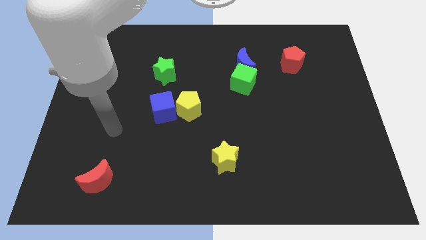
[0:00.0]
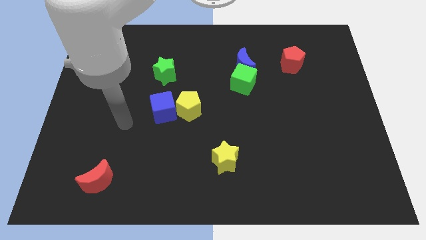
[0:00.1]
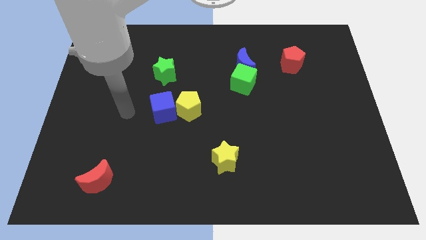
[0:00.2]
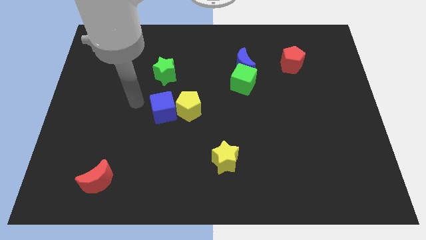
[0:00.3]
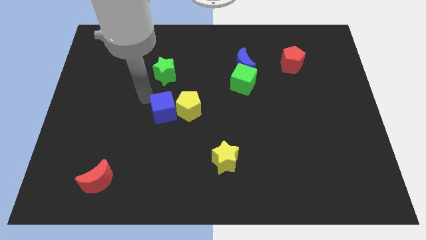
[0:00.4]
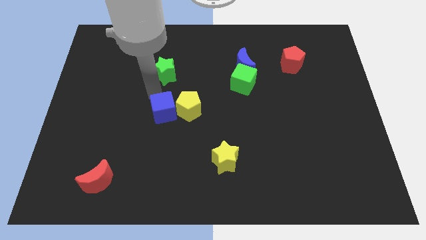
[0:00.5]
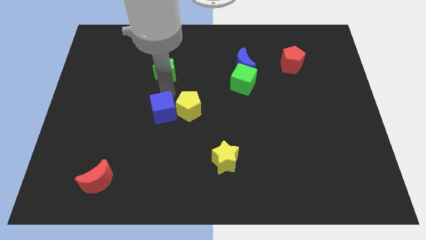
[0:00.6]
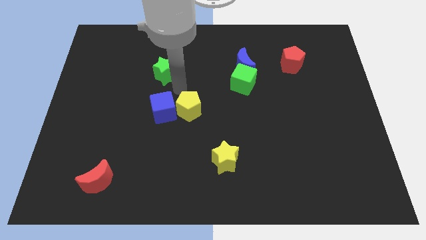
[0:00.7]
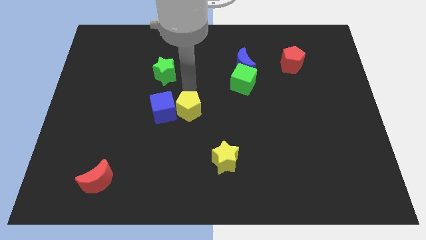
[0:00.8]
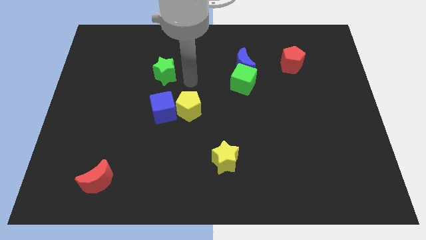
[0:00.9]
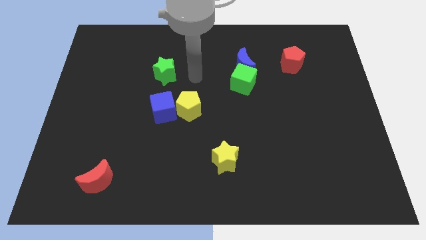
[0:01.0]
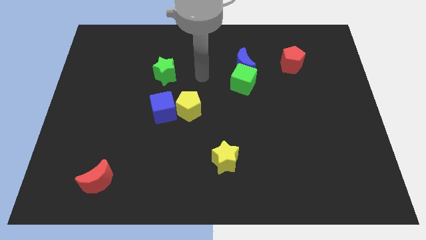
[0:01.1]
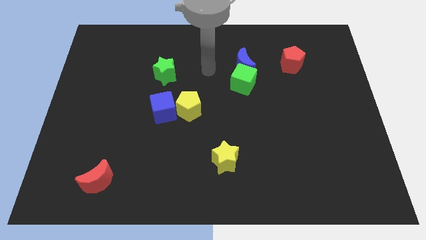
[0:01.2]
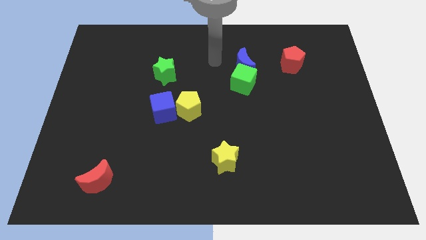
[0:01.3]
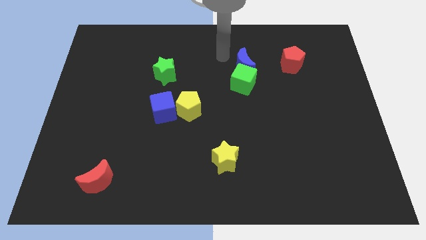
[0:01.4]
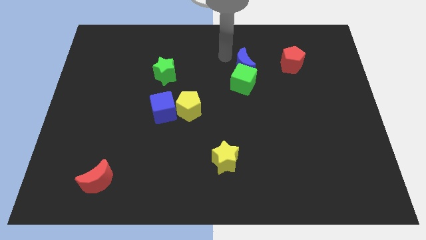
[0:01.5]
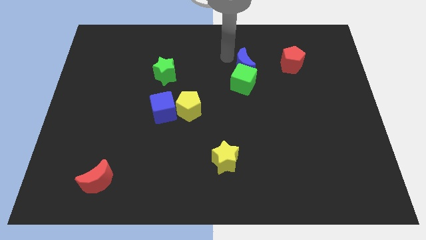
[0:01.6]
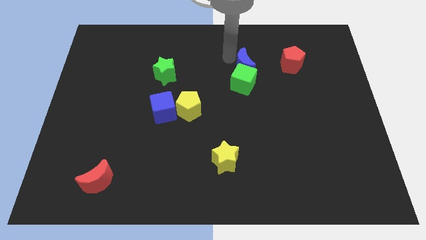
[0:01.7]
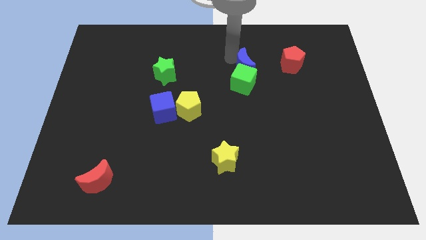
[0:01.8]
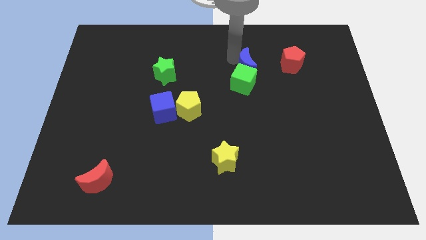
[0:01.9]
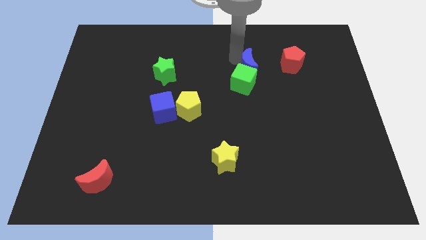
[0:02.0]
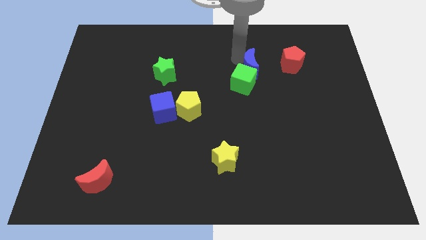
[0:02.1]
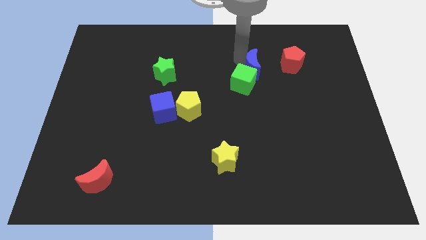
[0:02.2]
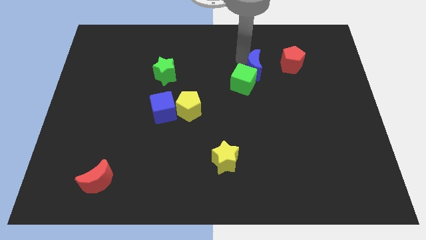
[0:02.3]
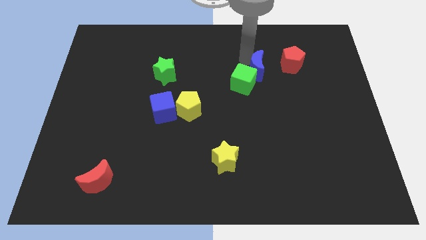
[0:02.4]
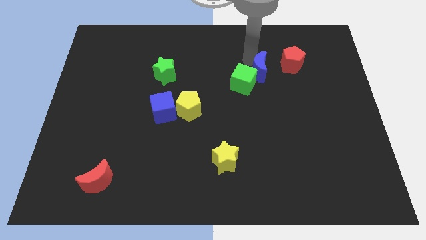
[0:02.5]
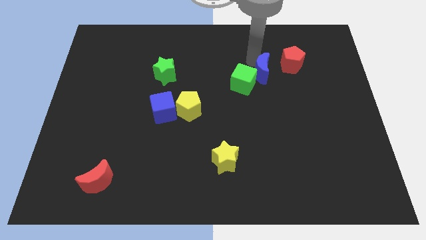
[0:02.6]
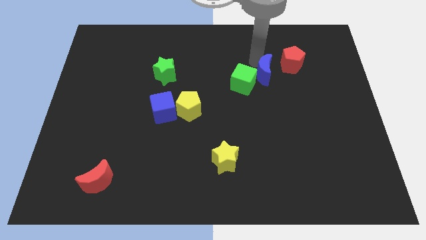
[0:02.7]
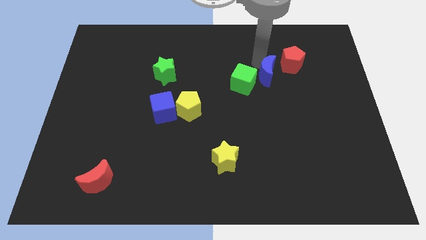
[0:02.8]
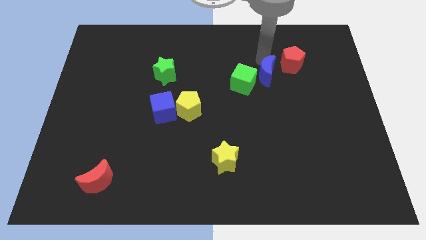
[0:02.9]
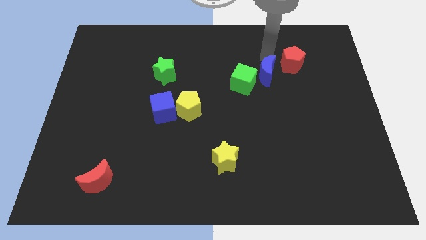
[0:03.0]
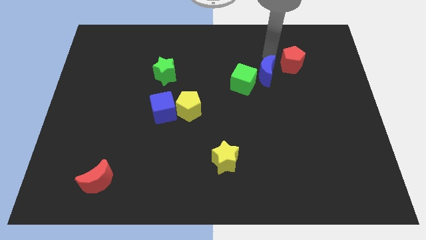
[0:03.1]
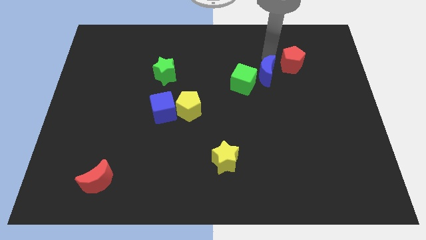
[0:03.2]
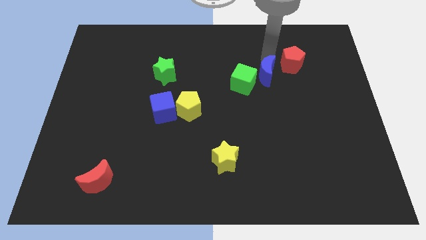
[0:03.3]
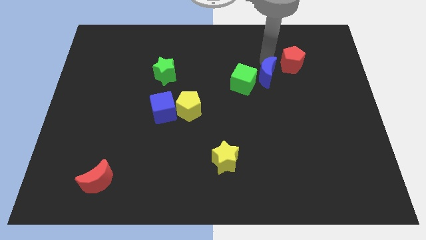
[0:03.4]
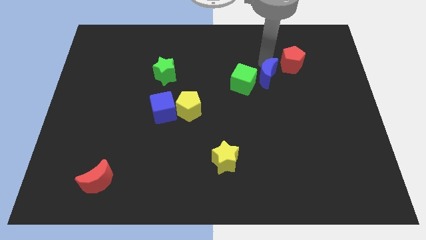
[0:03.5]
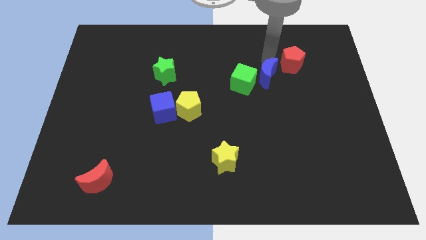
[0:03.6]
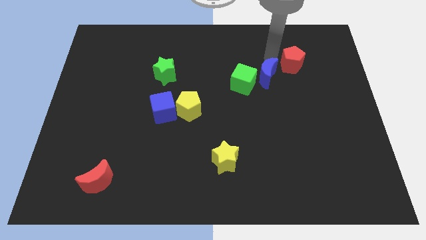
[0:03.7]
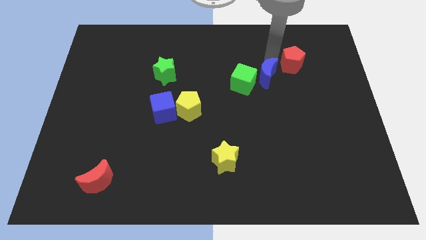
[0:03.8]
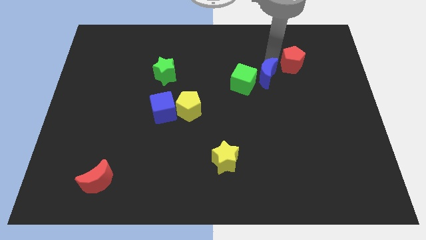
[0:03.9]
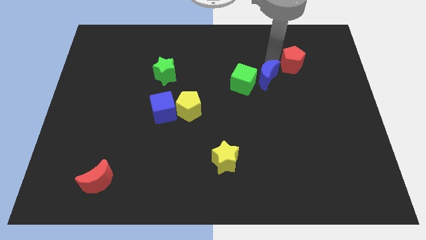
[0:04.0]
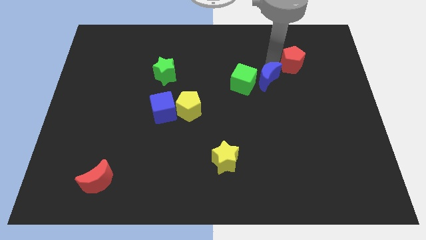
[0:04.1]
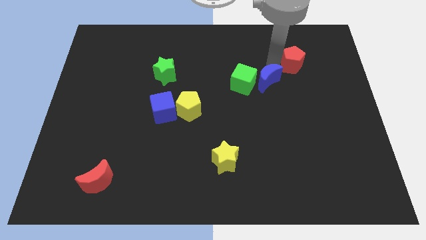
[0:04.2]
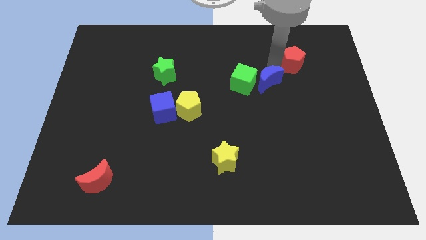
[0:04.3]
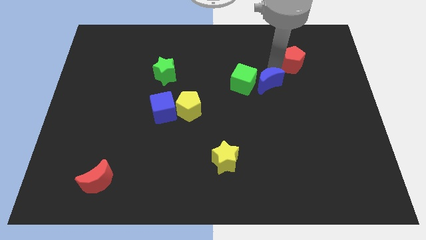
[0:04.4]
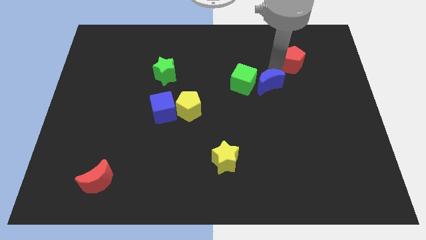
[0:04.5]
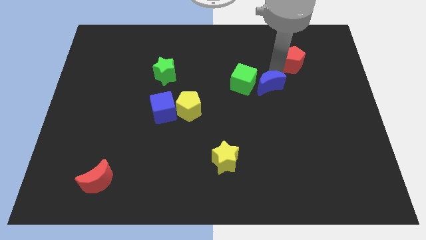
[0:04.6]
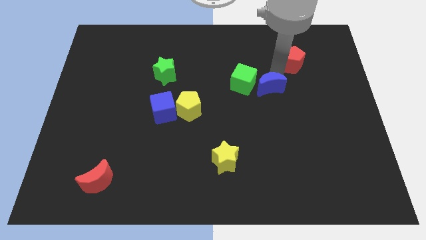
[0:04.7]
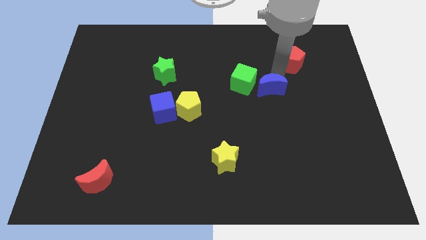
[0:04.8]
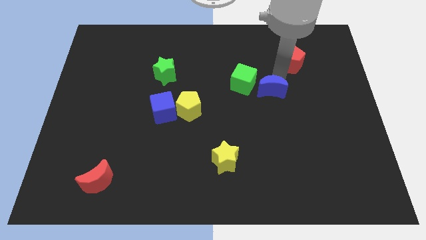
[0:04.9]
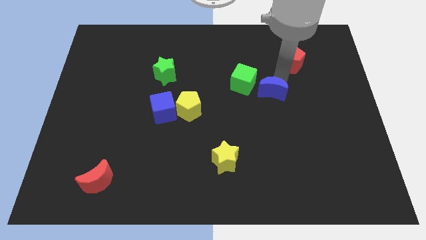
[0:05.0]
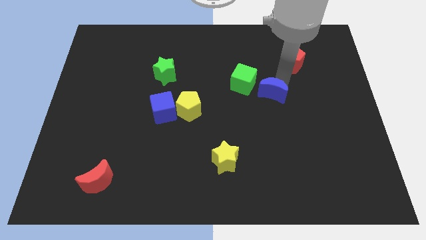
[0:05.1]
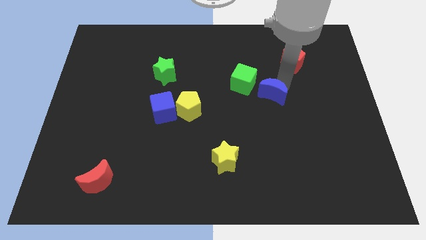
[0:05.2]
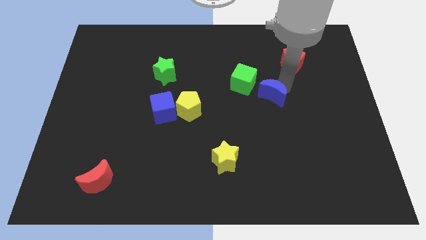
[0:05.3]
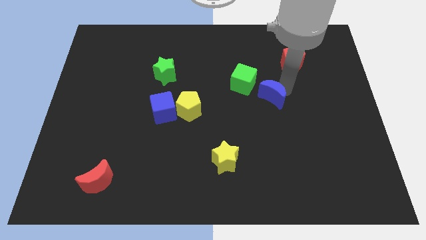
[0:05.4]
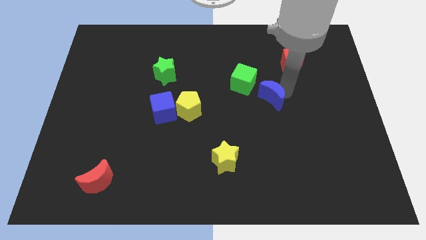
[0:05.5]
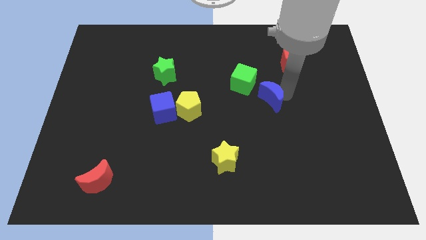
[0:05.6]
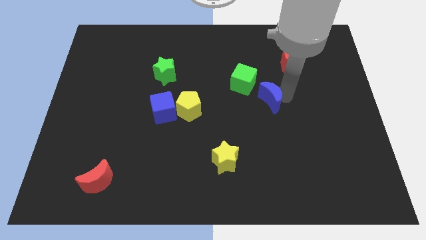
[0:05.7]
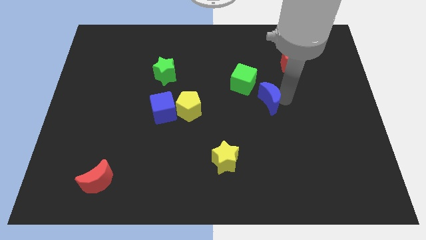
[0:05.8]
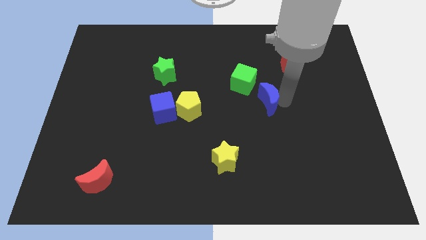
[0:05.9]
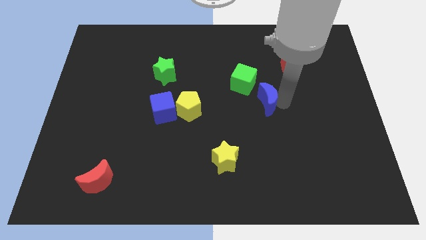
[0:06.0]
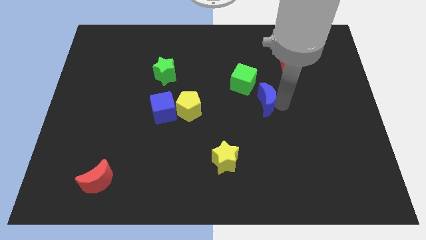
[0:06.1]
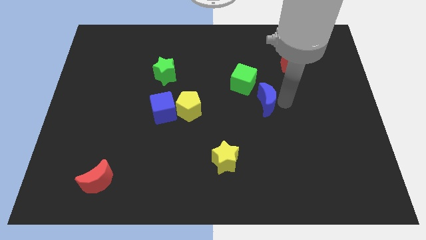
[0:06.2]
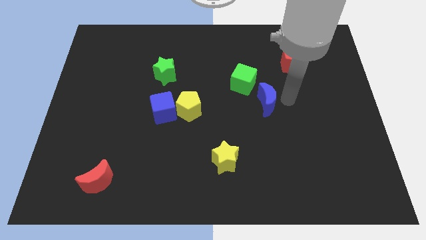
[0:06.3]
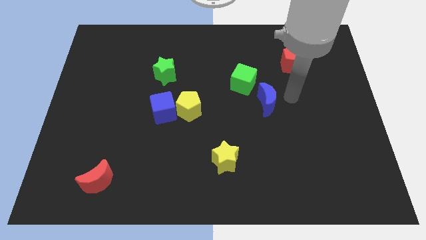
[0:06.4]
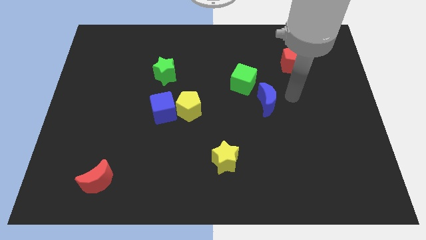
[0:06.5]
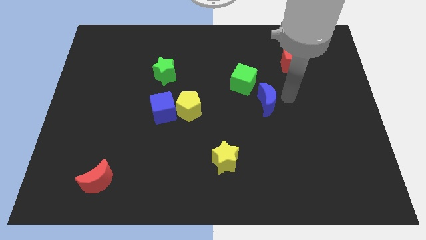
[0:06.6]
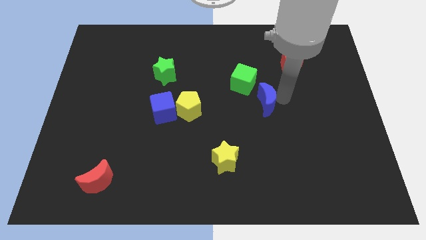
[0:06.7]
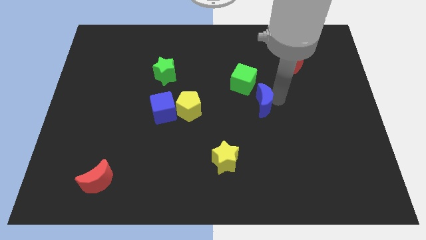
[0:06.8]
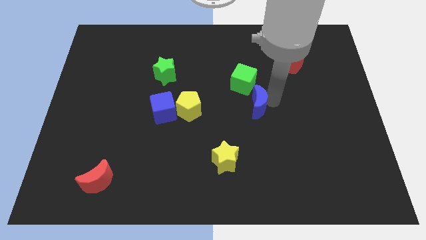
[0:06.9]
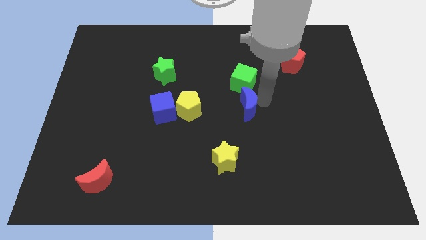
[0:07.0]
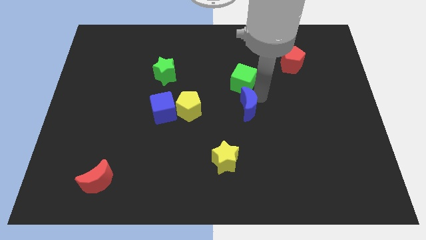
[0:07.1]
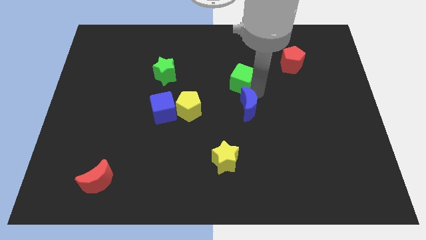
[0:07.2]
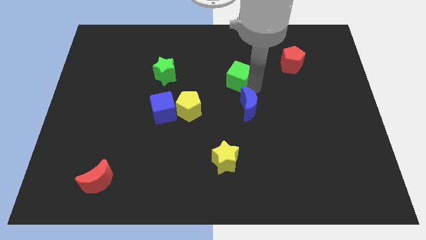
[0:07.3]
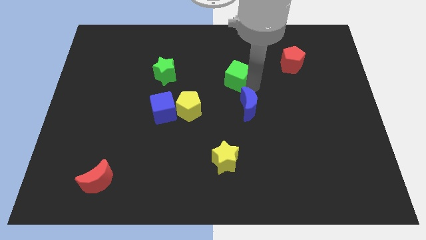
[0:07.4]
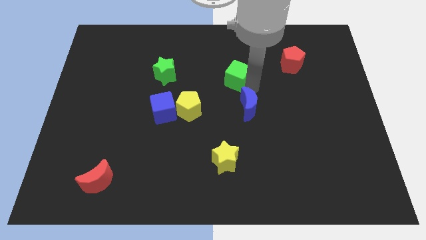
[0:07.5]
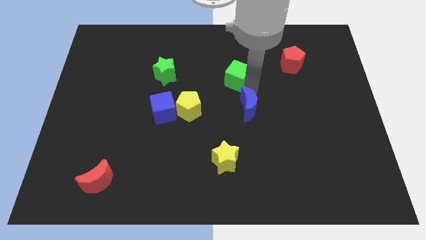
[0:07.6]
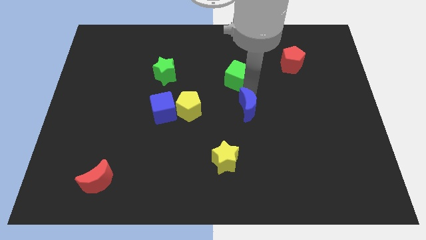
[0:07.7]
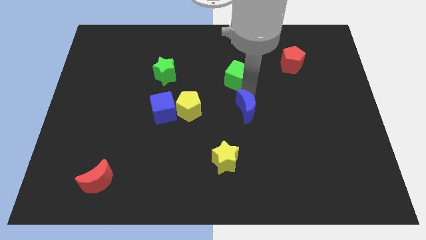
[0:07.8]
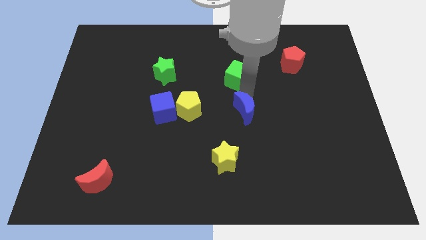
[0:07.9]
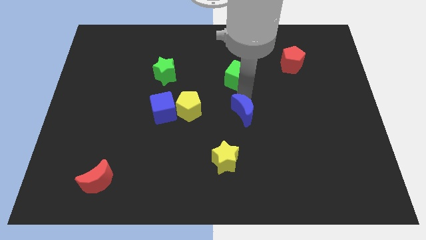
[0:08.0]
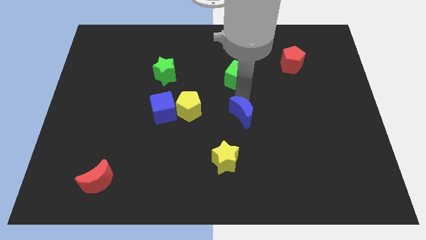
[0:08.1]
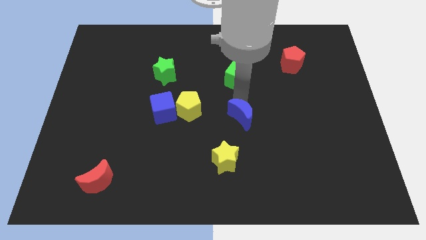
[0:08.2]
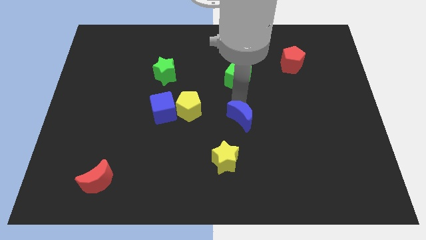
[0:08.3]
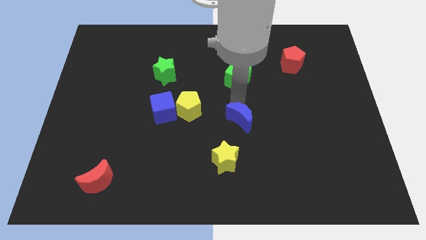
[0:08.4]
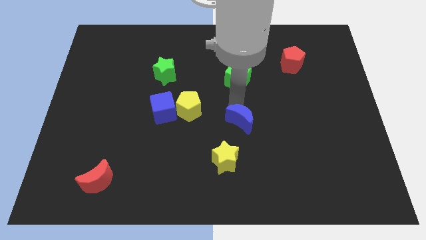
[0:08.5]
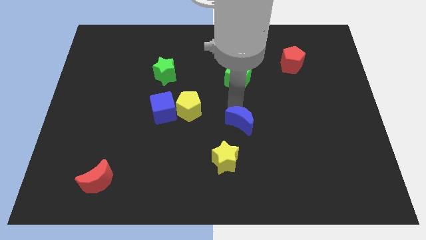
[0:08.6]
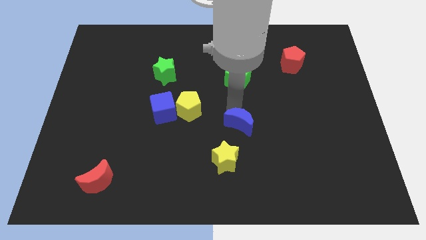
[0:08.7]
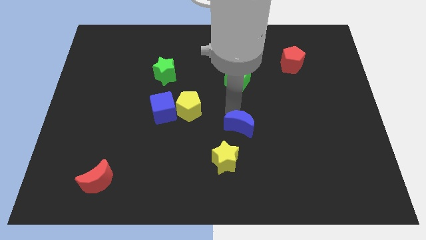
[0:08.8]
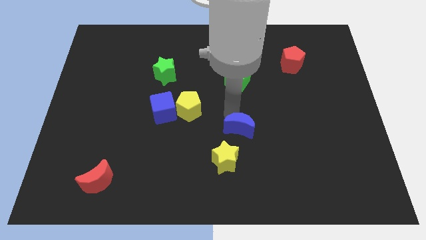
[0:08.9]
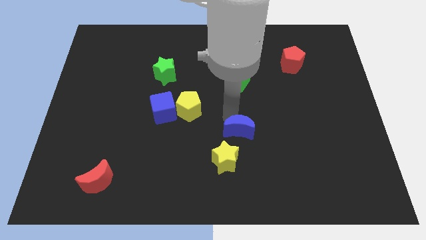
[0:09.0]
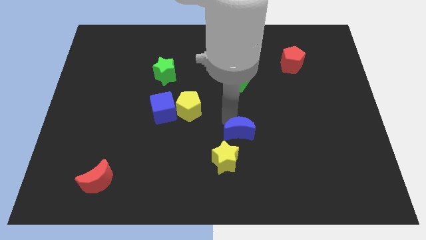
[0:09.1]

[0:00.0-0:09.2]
move the blue moon downwards
